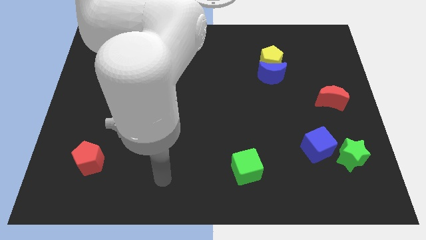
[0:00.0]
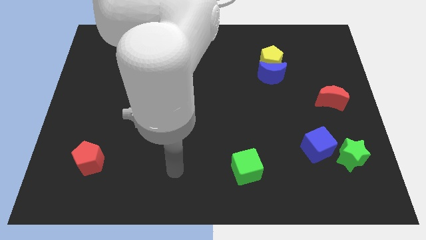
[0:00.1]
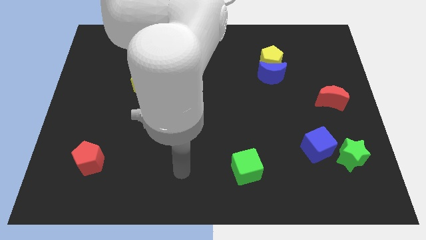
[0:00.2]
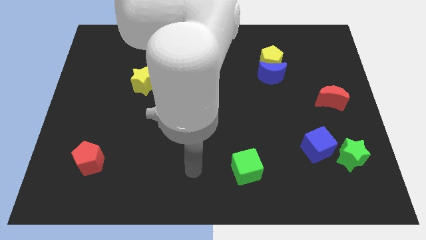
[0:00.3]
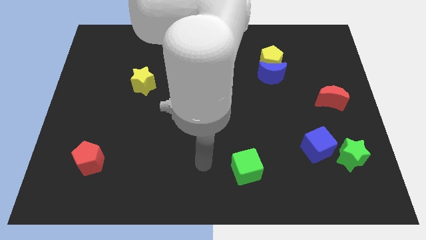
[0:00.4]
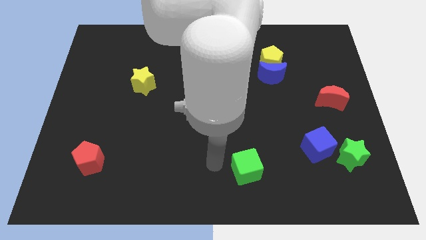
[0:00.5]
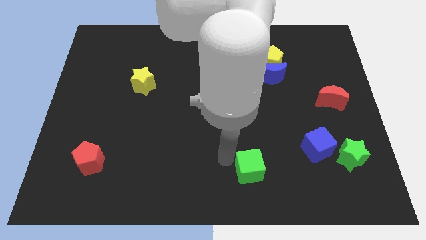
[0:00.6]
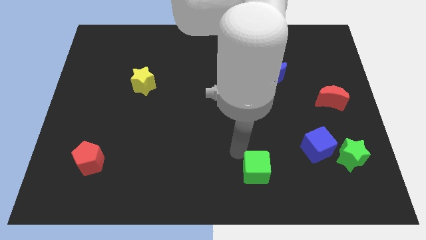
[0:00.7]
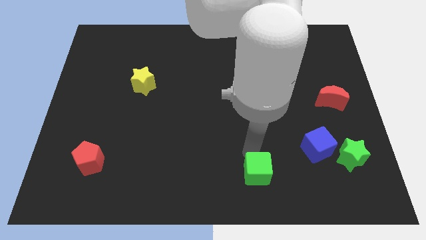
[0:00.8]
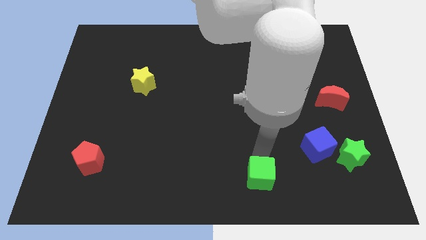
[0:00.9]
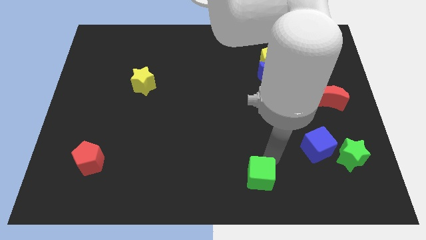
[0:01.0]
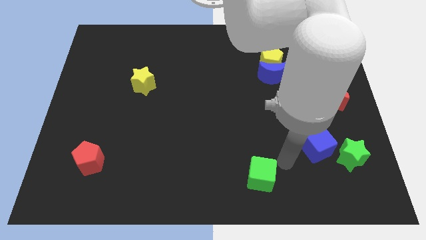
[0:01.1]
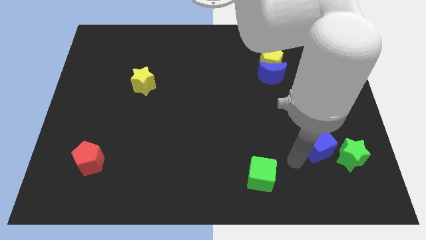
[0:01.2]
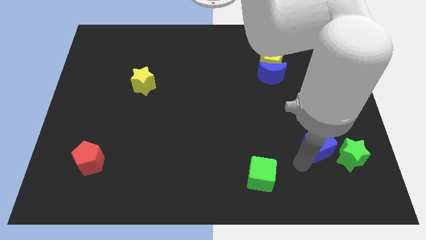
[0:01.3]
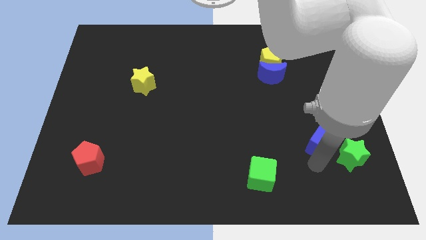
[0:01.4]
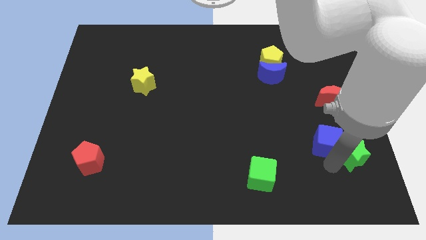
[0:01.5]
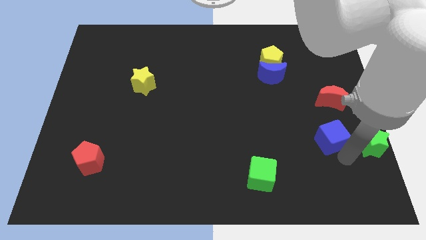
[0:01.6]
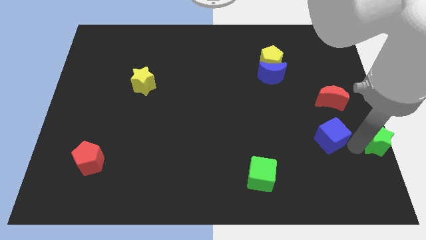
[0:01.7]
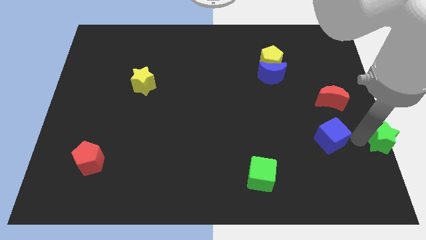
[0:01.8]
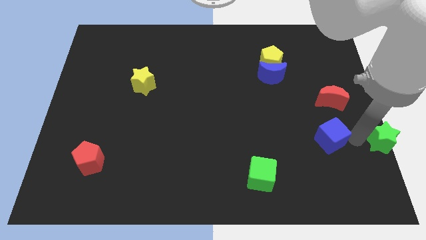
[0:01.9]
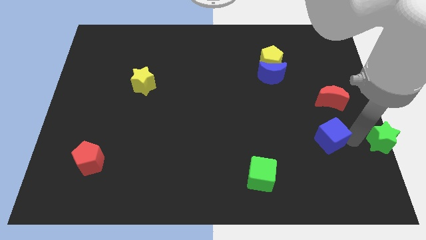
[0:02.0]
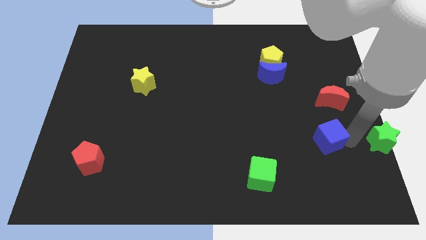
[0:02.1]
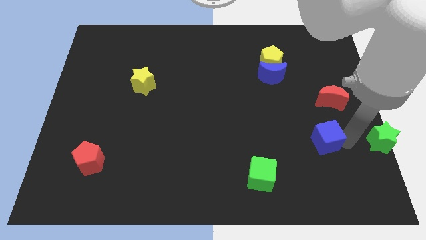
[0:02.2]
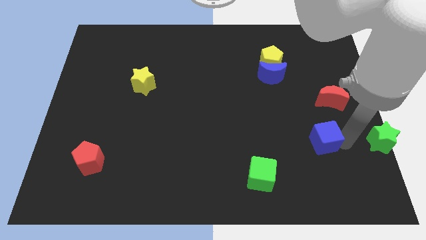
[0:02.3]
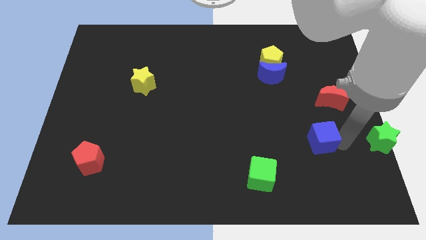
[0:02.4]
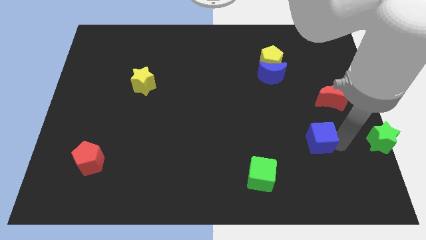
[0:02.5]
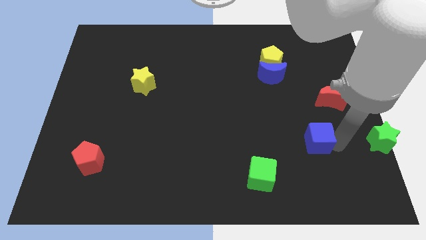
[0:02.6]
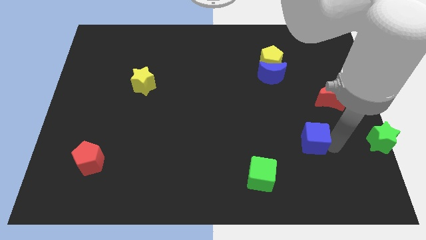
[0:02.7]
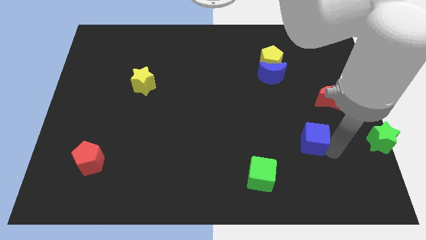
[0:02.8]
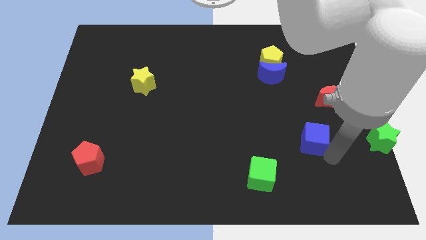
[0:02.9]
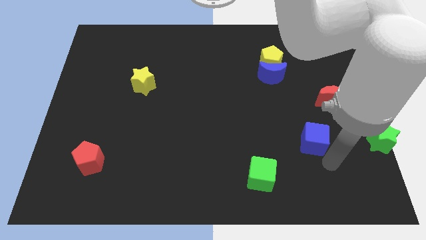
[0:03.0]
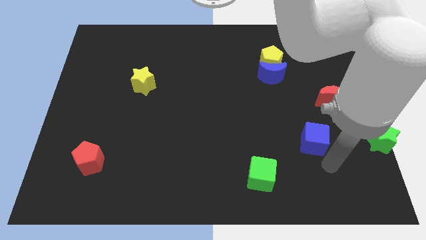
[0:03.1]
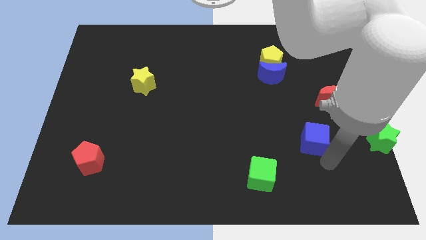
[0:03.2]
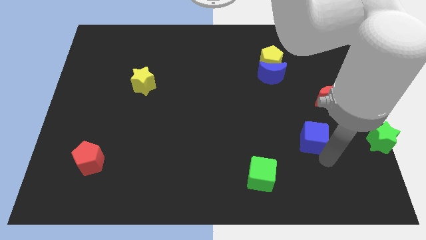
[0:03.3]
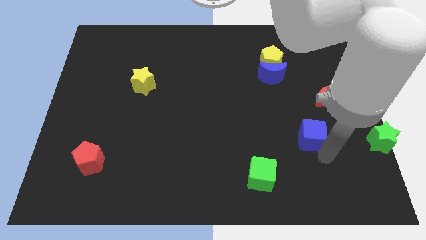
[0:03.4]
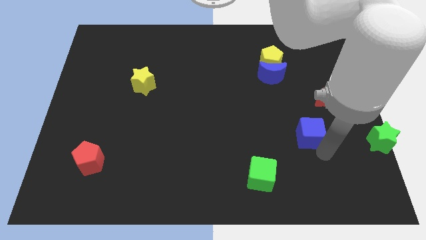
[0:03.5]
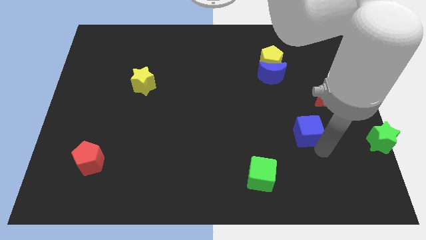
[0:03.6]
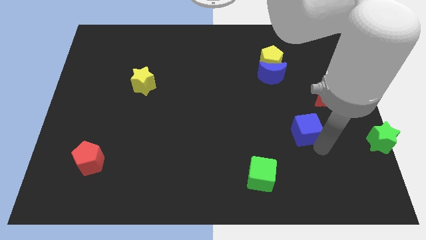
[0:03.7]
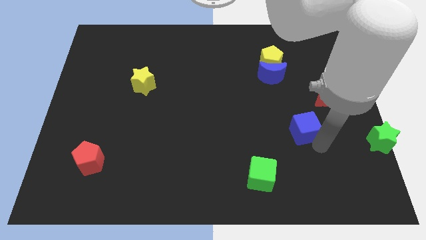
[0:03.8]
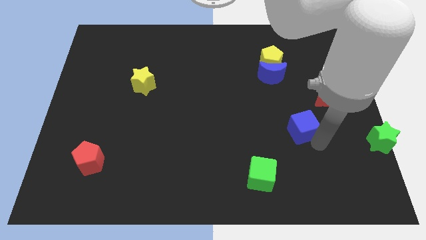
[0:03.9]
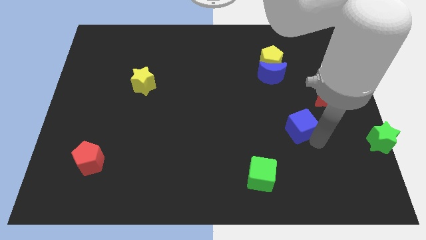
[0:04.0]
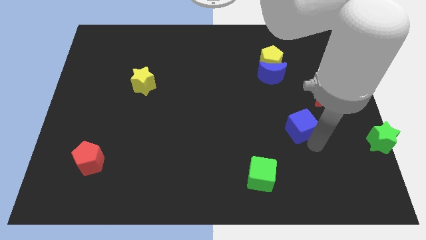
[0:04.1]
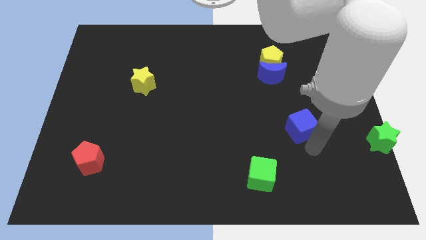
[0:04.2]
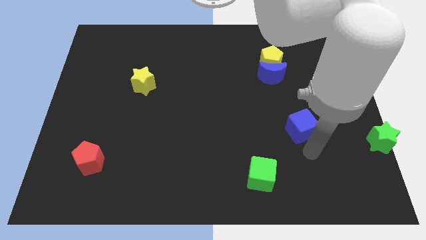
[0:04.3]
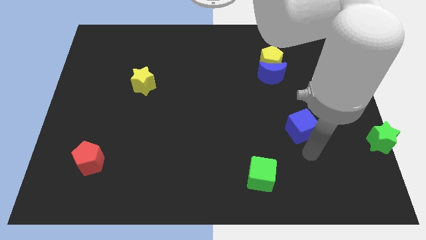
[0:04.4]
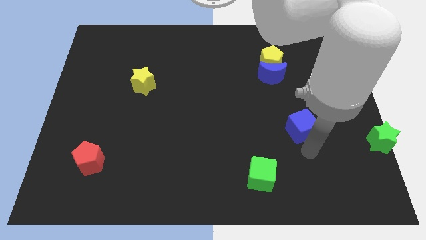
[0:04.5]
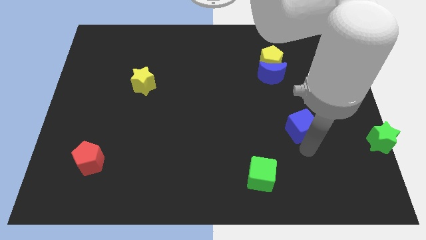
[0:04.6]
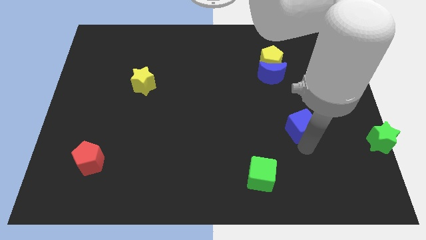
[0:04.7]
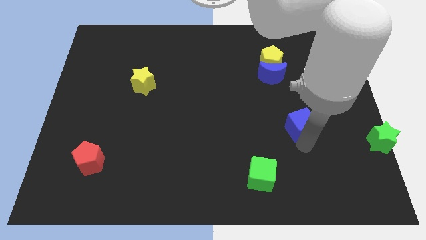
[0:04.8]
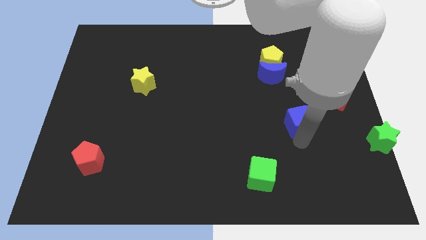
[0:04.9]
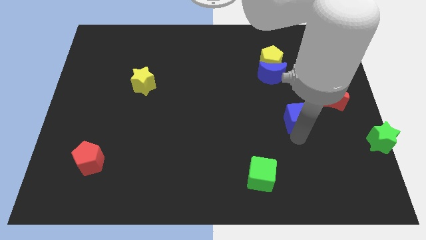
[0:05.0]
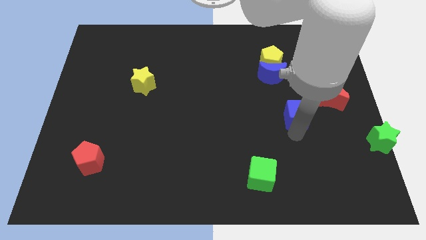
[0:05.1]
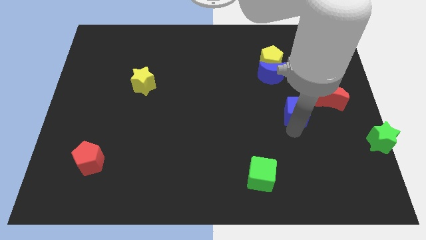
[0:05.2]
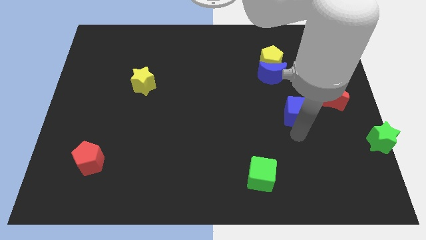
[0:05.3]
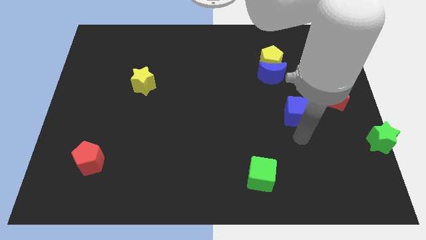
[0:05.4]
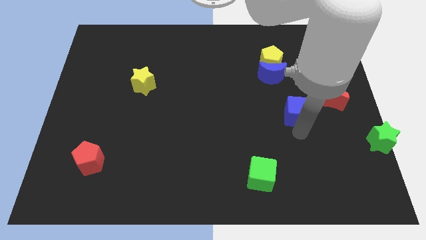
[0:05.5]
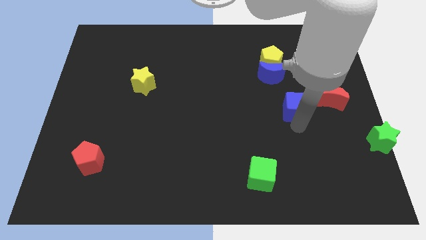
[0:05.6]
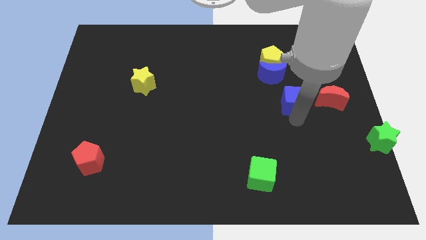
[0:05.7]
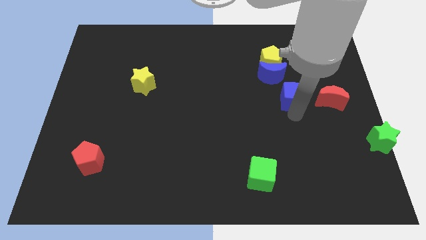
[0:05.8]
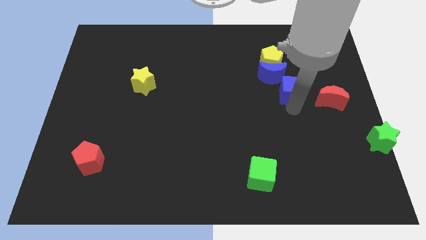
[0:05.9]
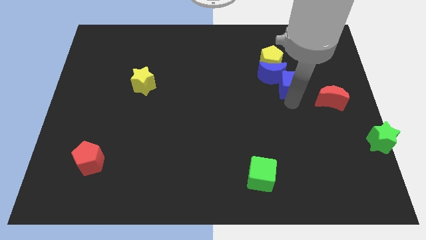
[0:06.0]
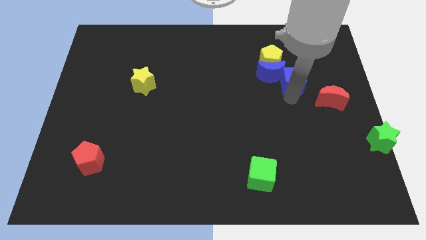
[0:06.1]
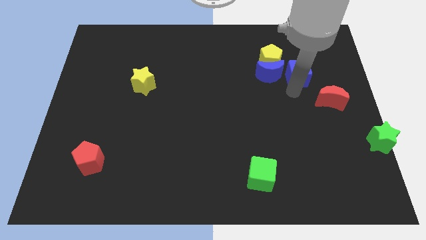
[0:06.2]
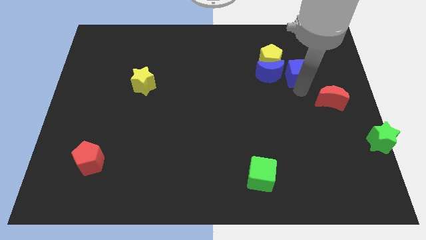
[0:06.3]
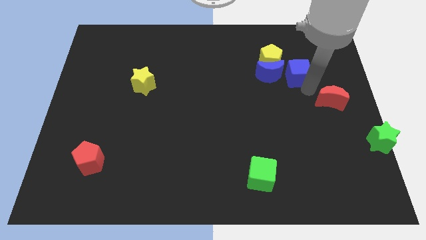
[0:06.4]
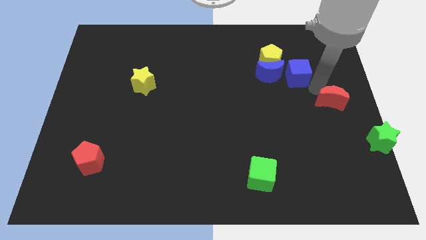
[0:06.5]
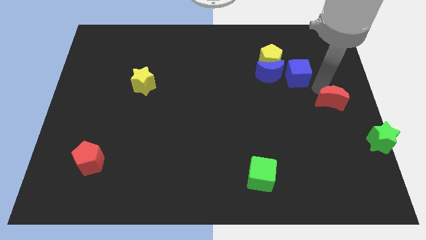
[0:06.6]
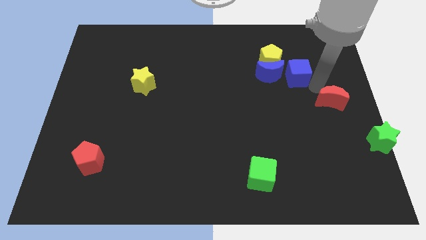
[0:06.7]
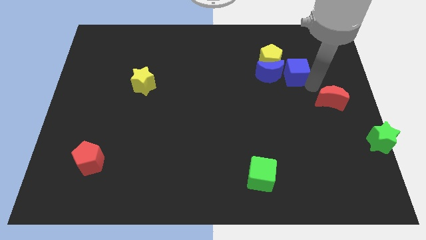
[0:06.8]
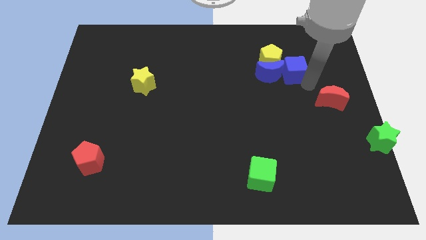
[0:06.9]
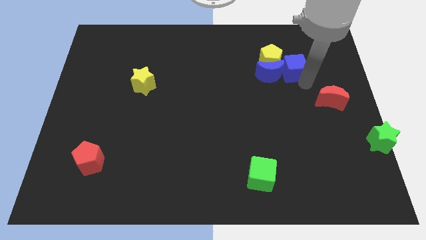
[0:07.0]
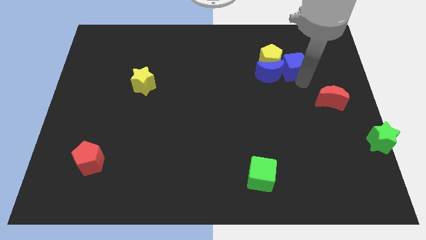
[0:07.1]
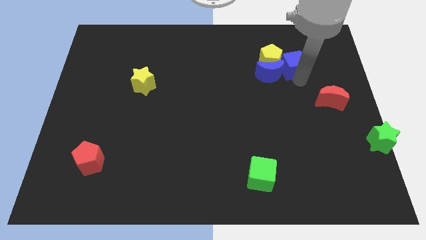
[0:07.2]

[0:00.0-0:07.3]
move the blue cube next to the yellow pentagon

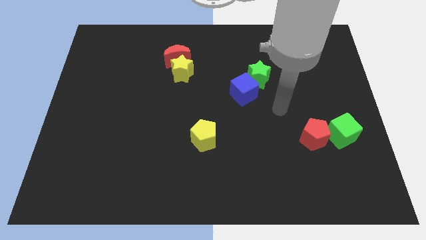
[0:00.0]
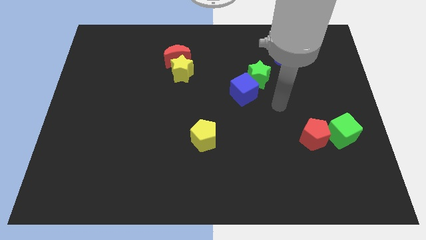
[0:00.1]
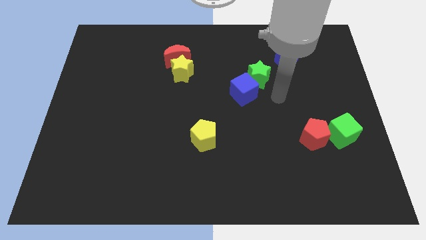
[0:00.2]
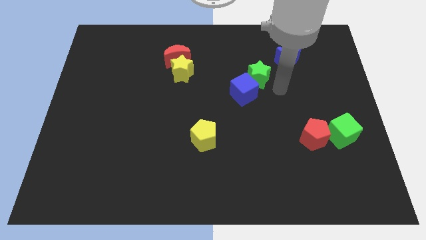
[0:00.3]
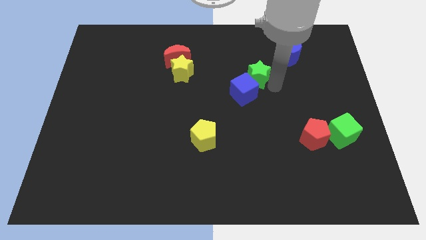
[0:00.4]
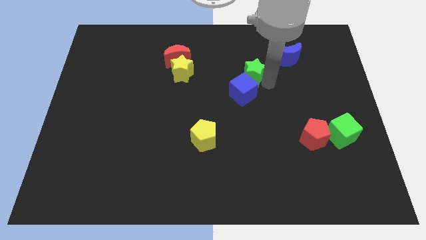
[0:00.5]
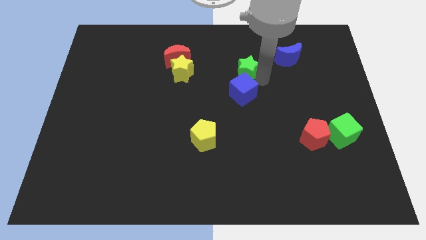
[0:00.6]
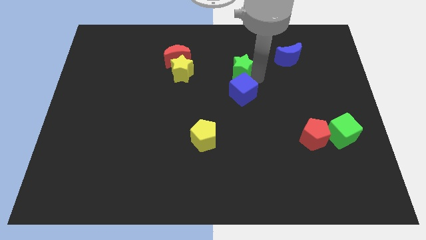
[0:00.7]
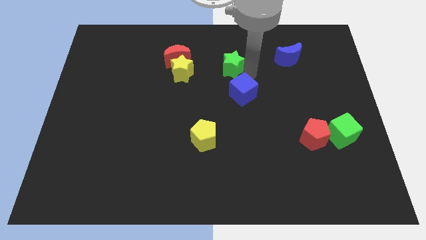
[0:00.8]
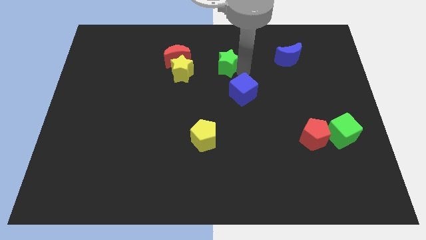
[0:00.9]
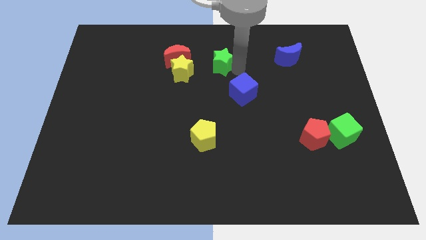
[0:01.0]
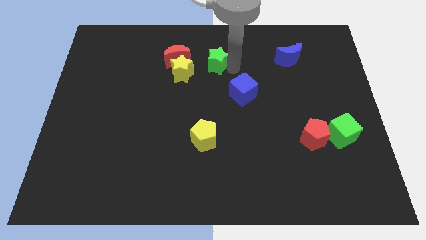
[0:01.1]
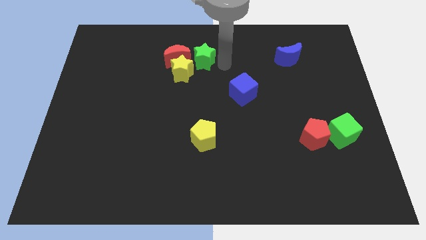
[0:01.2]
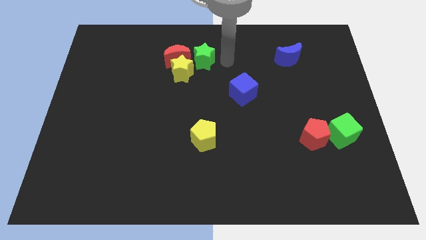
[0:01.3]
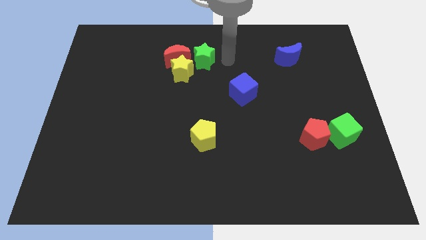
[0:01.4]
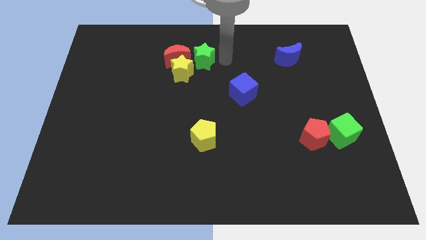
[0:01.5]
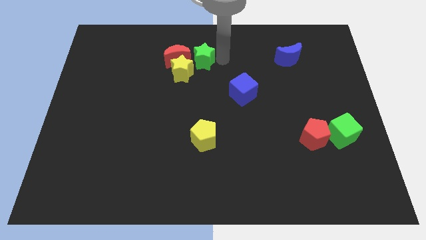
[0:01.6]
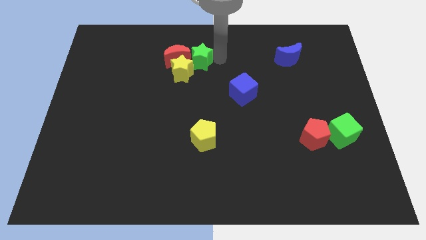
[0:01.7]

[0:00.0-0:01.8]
push the green star to the red moon
